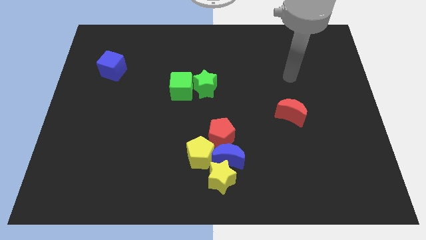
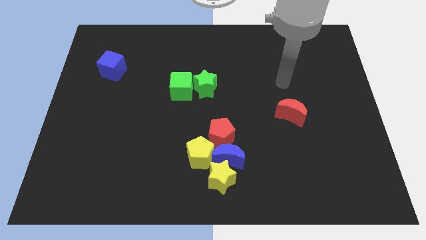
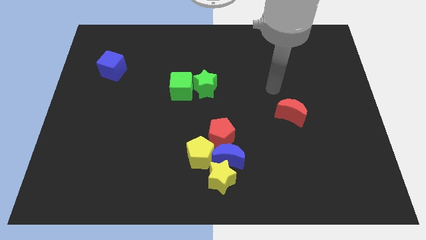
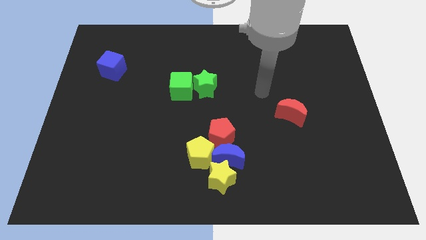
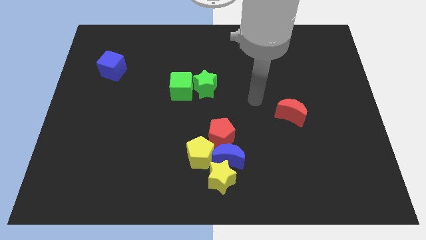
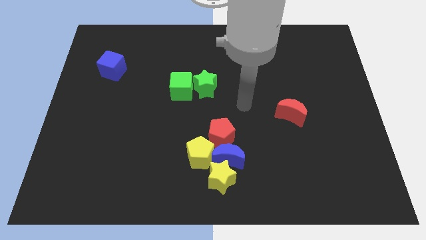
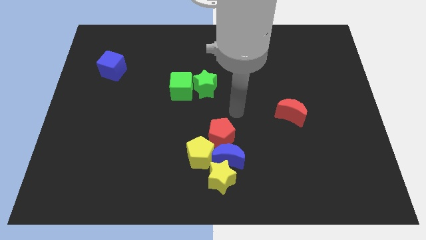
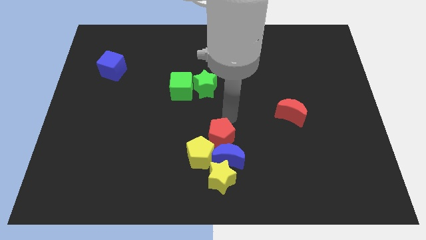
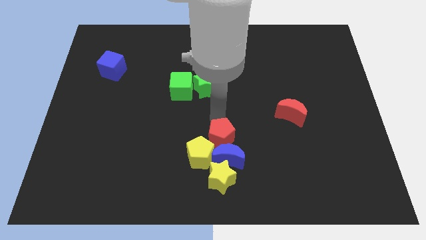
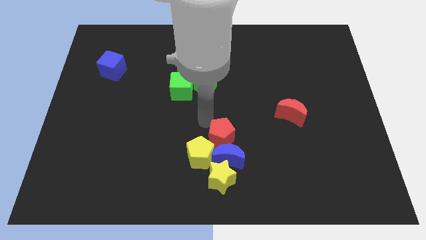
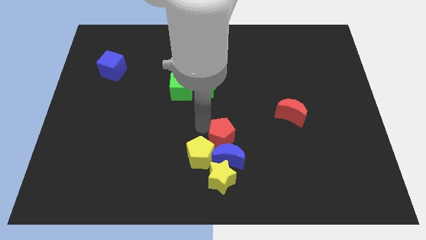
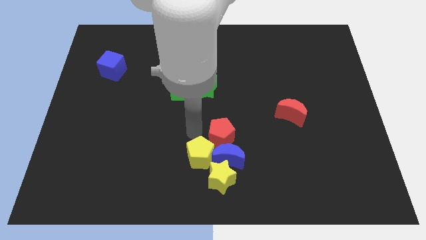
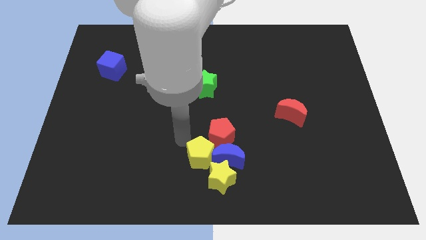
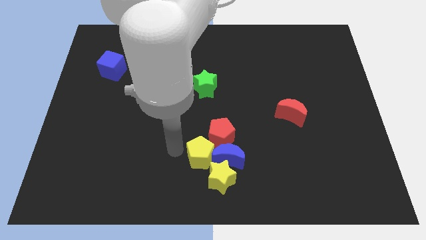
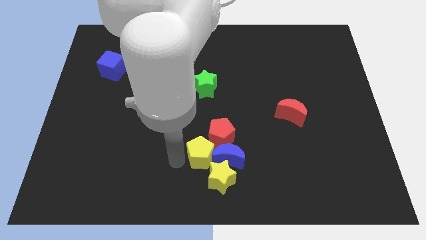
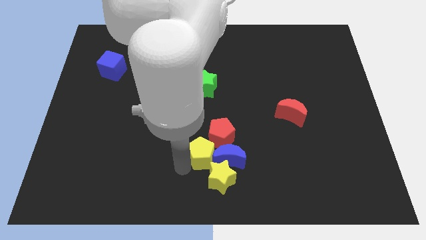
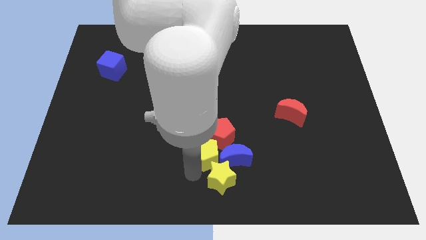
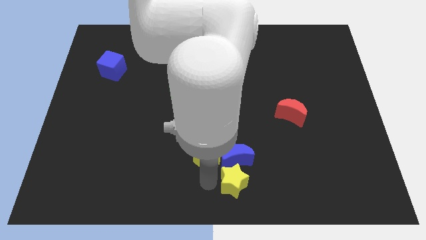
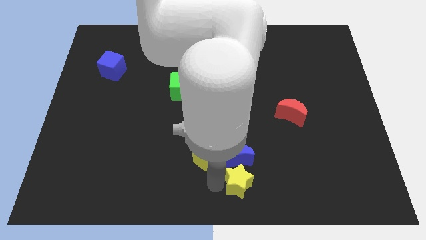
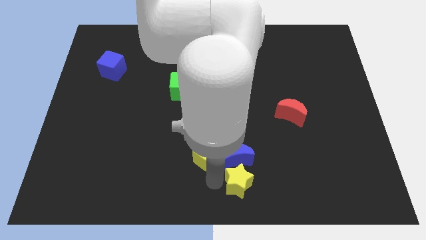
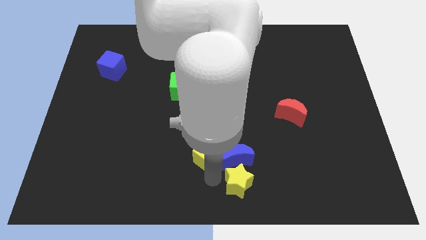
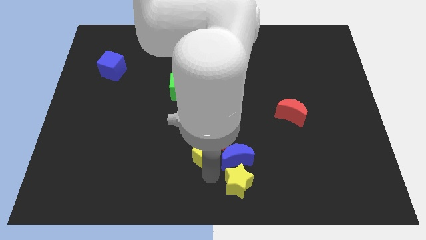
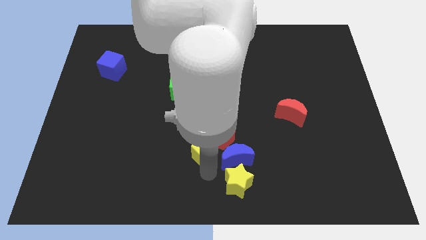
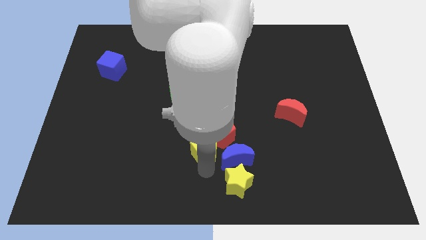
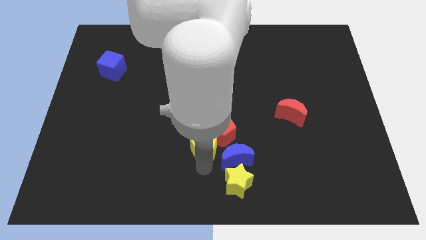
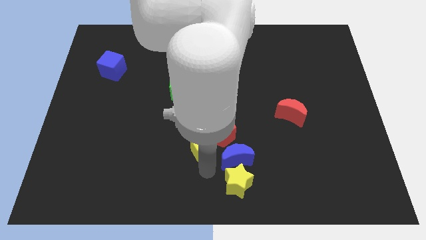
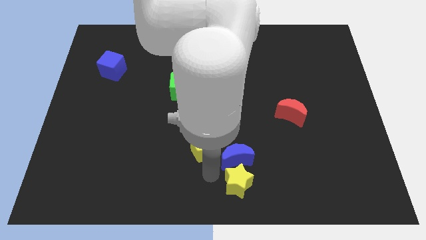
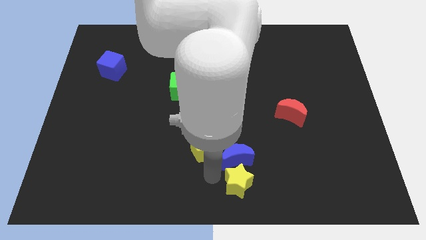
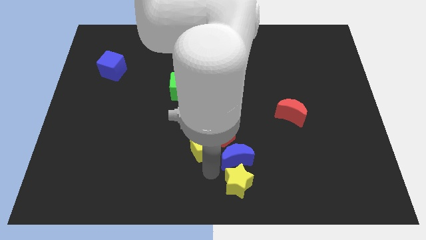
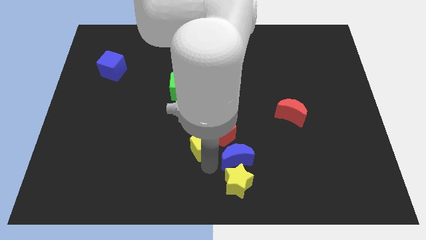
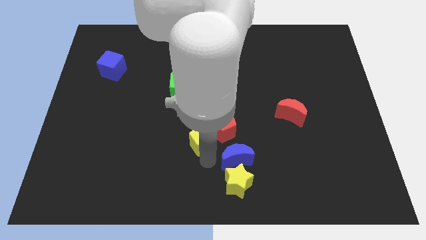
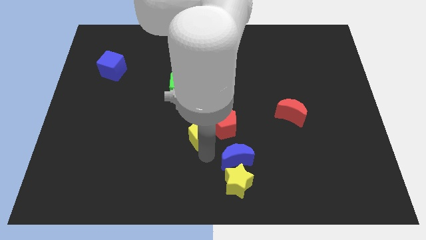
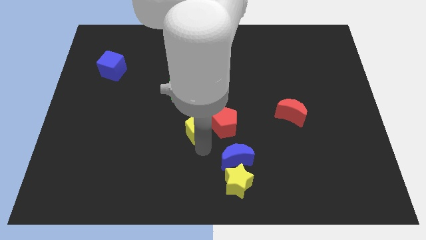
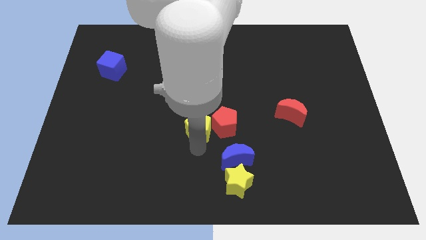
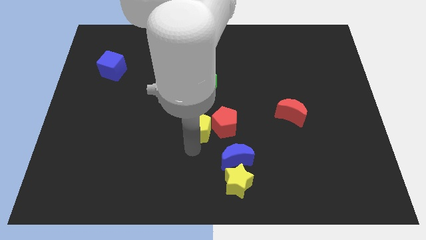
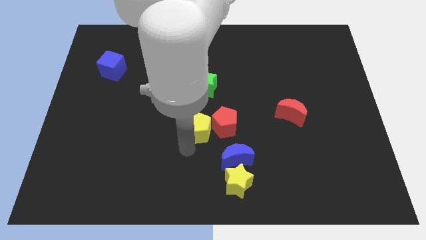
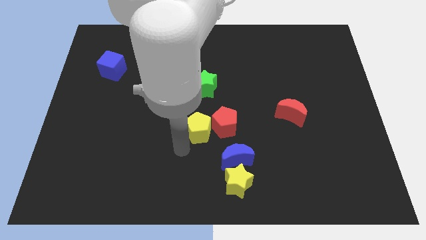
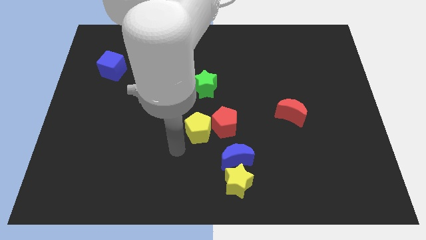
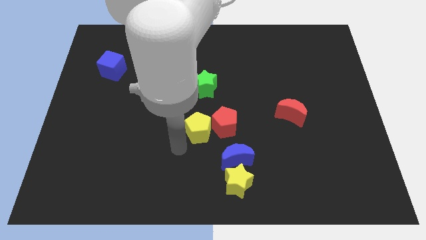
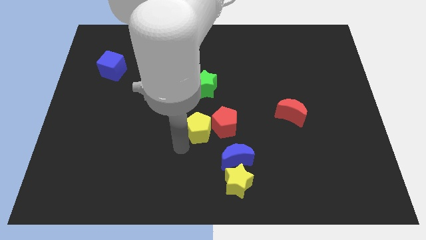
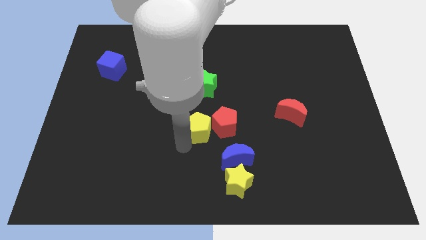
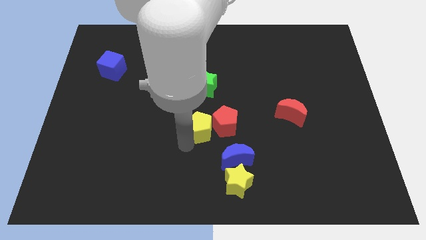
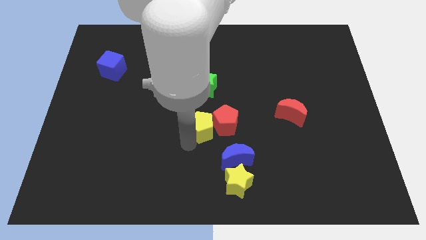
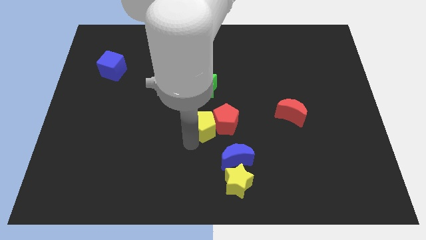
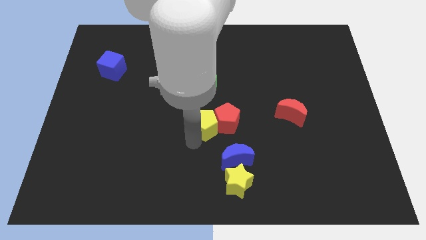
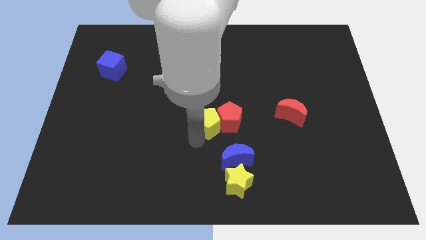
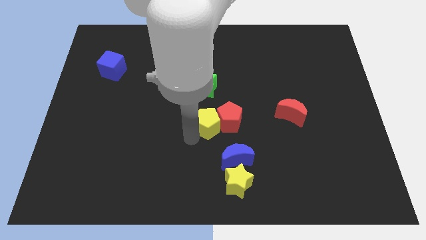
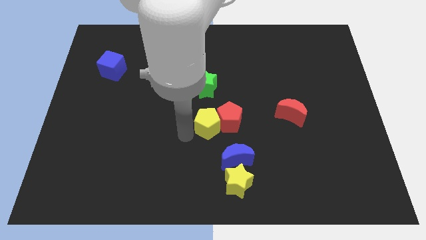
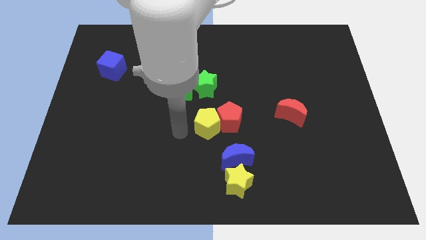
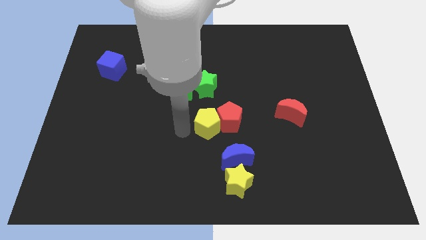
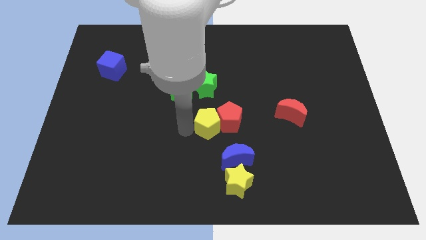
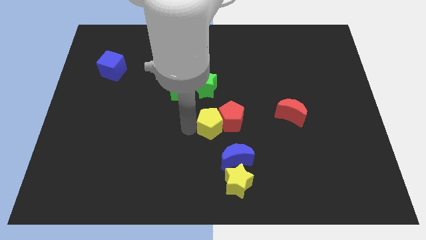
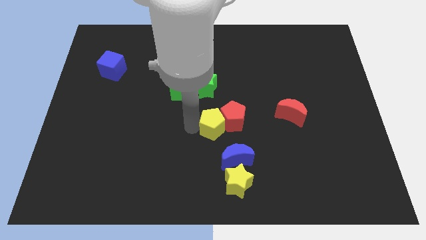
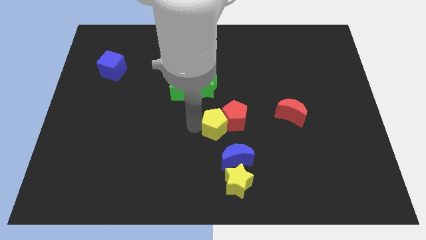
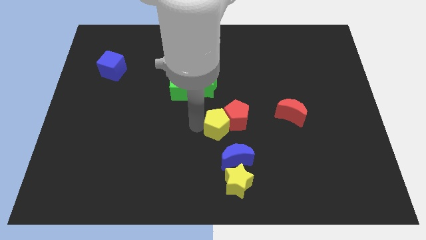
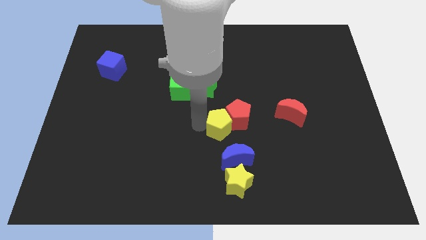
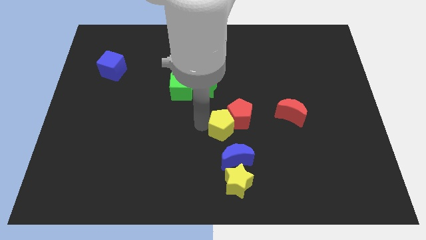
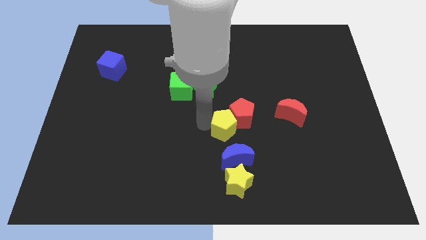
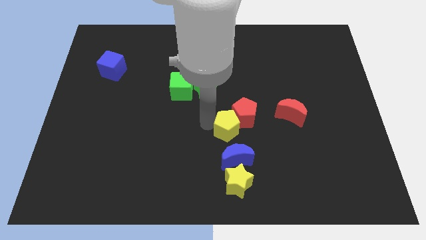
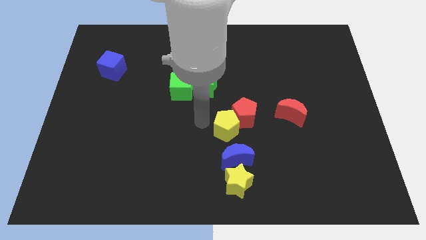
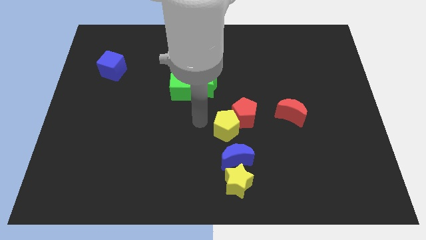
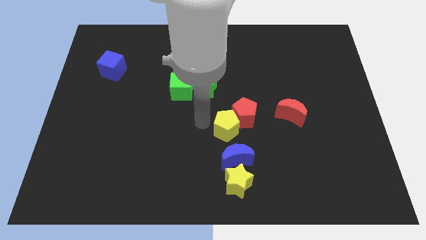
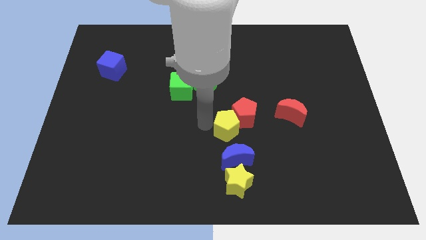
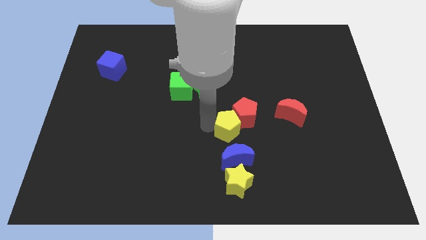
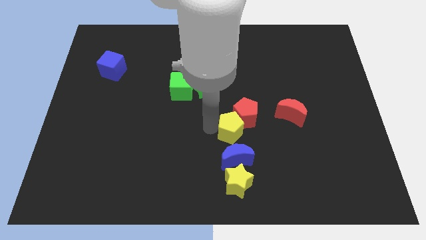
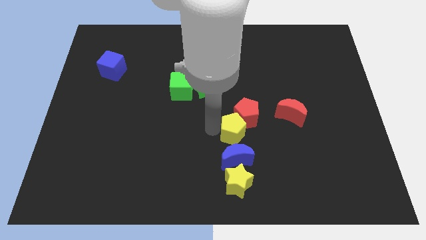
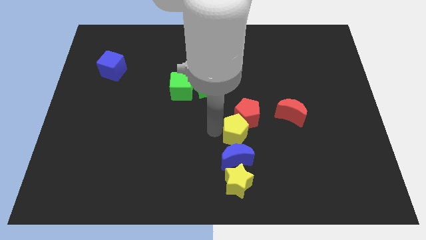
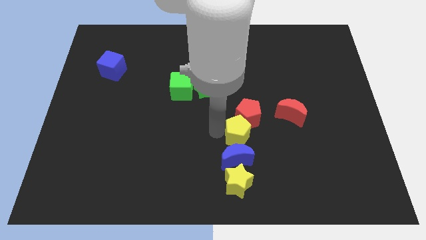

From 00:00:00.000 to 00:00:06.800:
push the yellow pentagon a little to the right

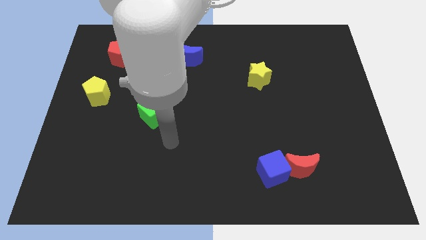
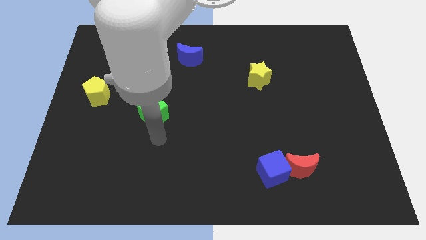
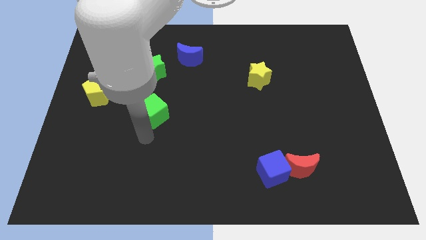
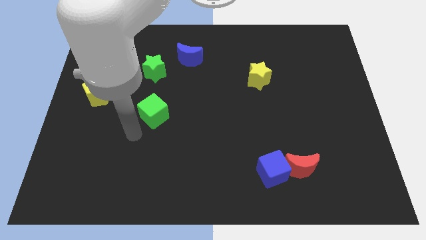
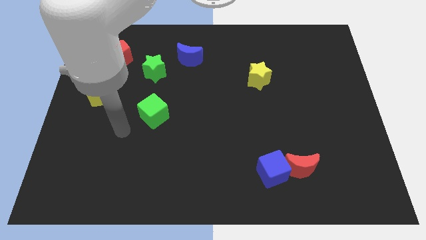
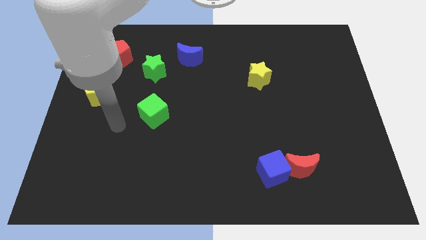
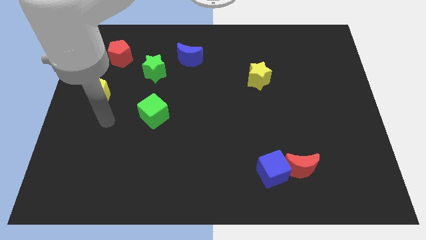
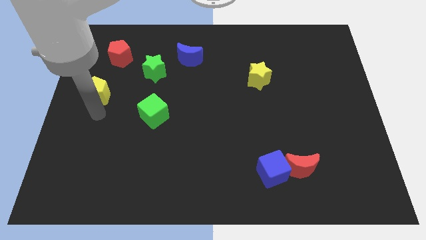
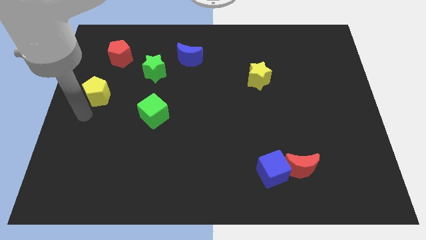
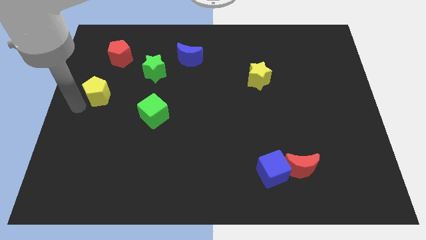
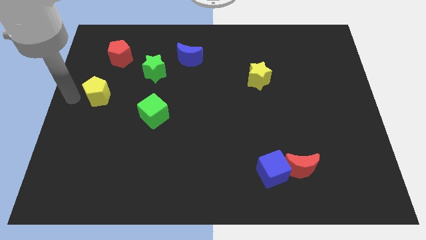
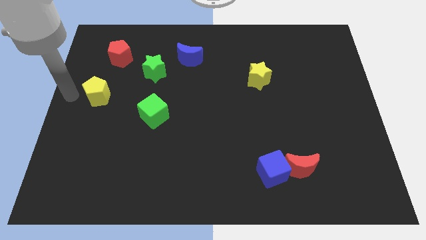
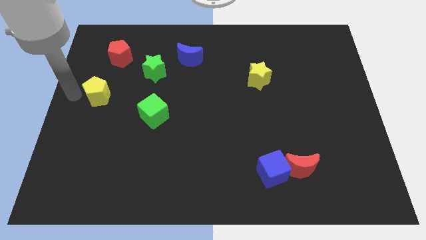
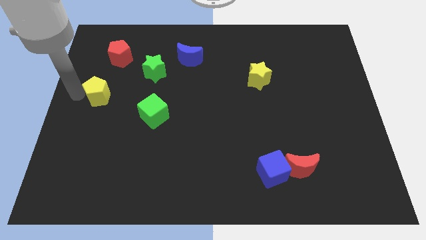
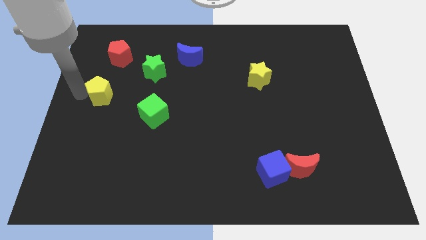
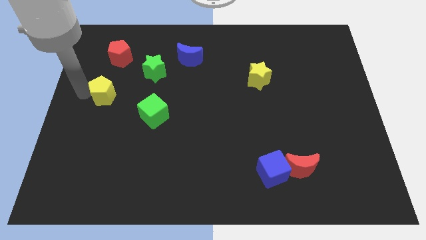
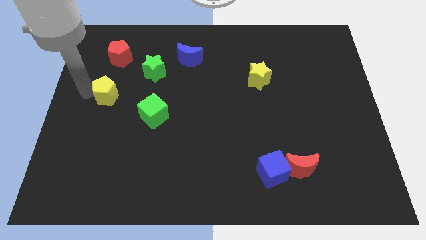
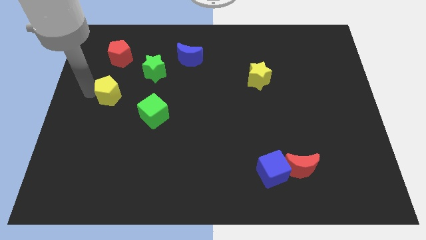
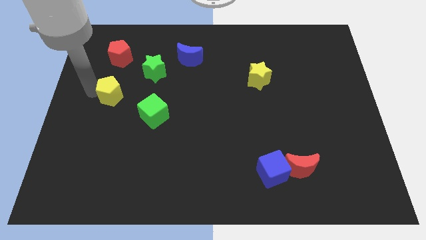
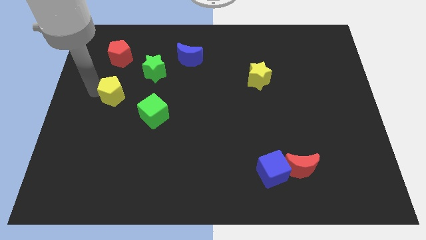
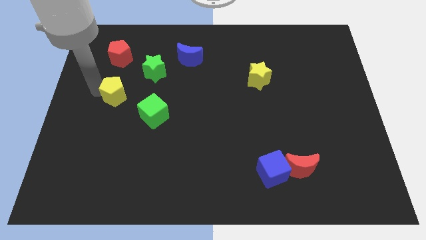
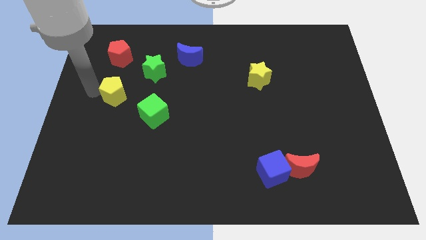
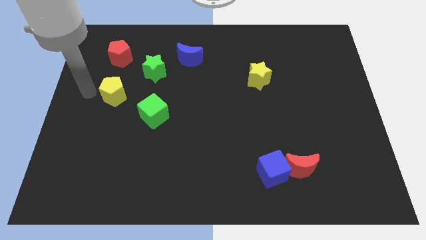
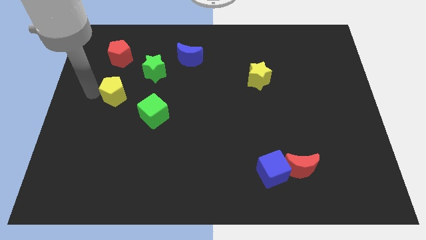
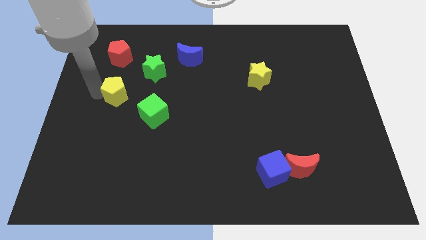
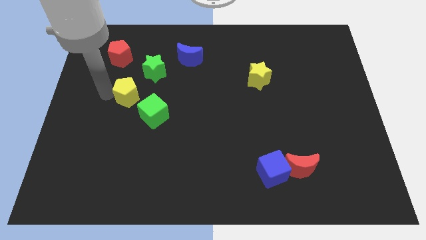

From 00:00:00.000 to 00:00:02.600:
slightly move the yellow pentagon right
